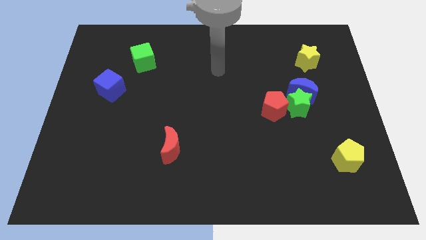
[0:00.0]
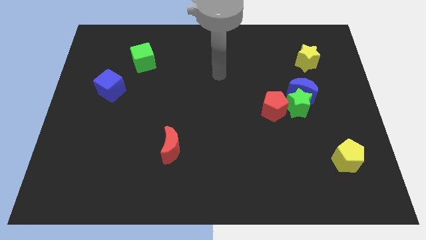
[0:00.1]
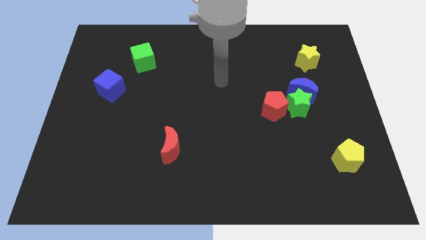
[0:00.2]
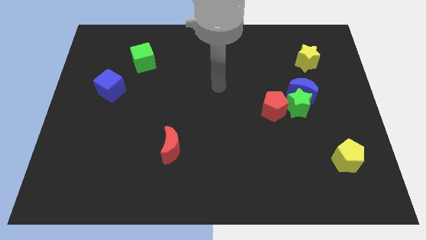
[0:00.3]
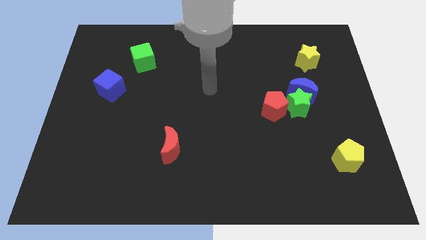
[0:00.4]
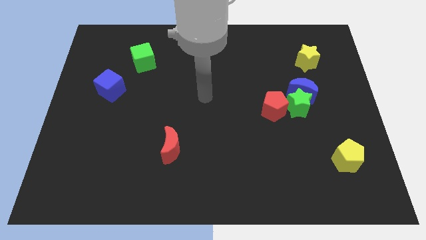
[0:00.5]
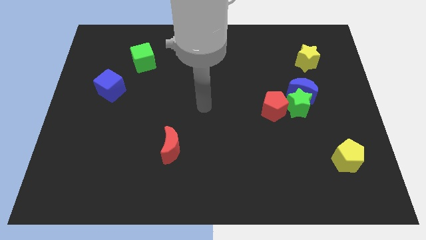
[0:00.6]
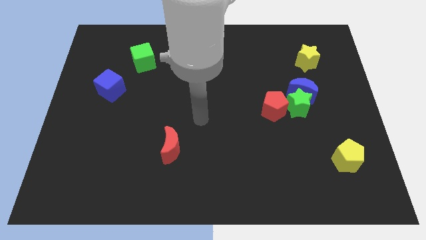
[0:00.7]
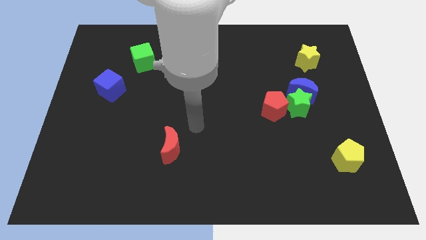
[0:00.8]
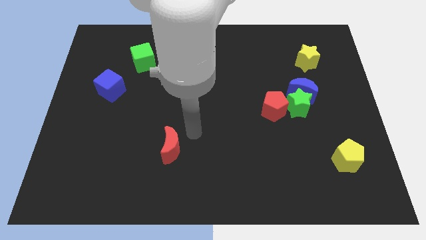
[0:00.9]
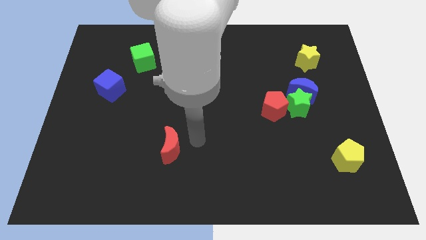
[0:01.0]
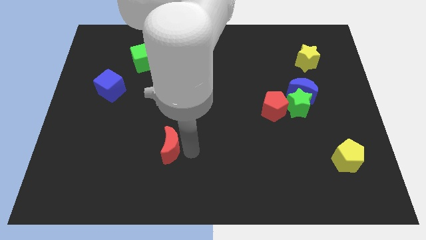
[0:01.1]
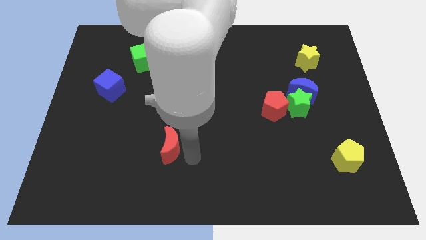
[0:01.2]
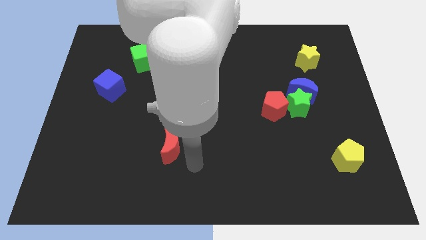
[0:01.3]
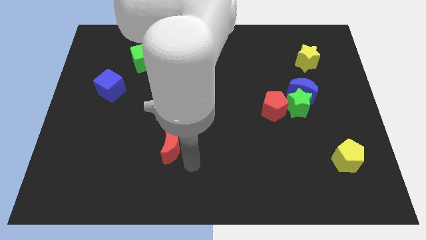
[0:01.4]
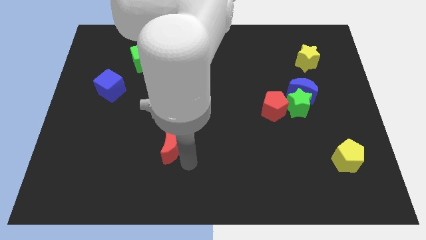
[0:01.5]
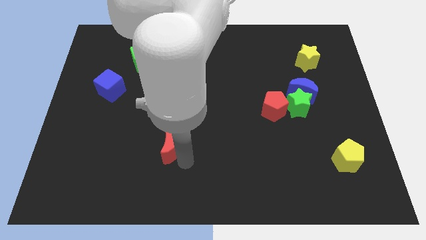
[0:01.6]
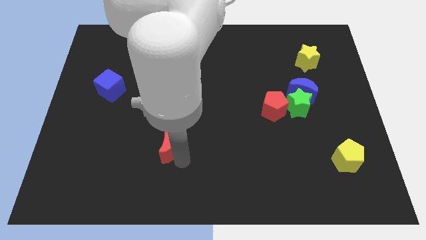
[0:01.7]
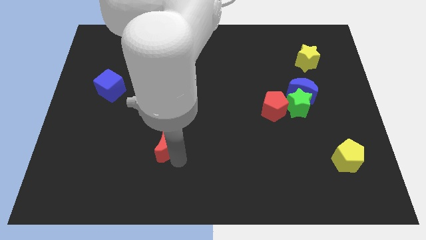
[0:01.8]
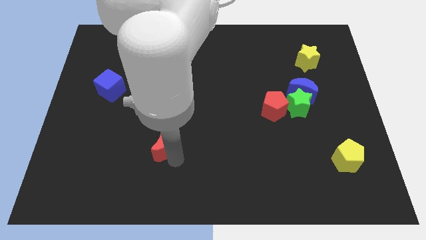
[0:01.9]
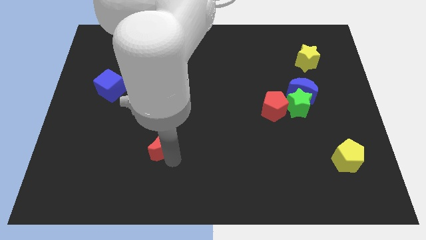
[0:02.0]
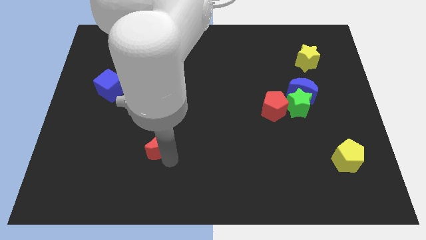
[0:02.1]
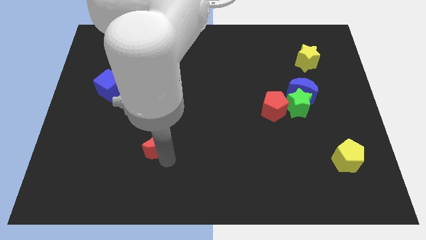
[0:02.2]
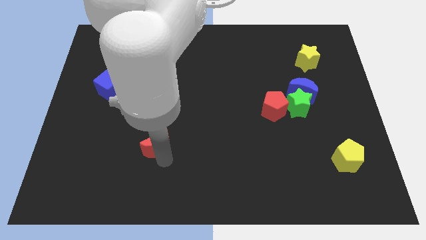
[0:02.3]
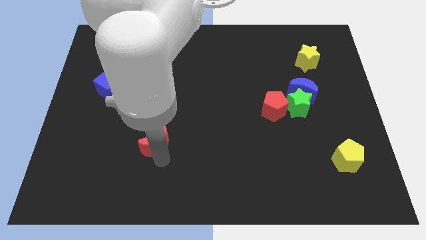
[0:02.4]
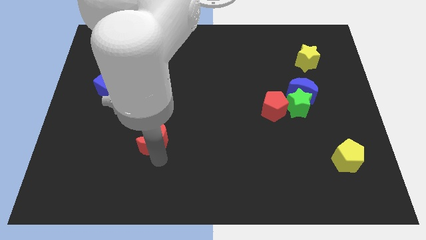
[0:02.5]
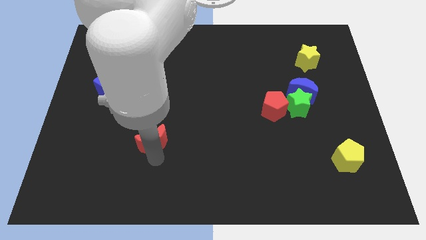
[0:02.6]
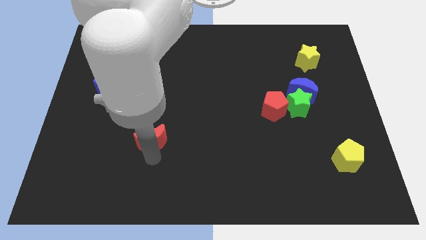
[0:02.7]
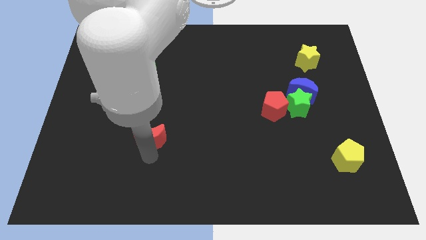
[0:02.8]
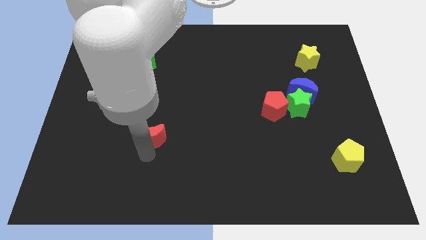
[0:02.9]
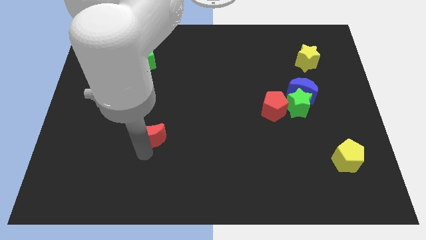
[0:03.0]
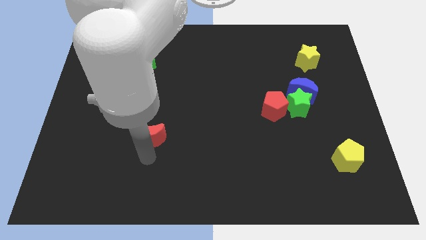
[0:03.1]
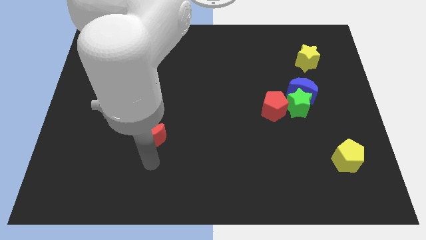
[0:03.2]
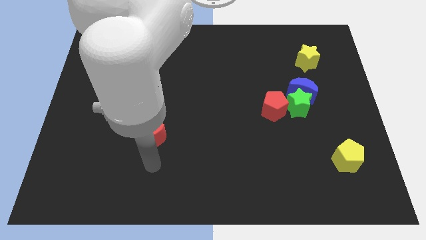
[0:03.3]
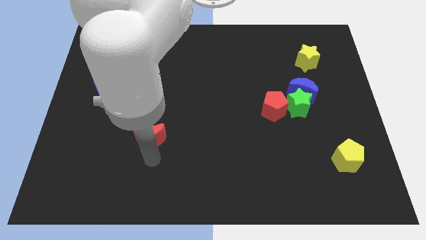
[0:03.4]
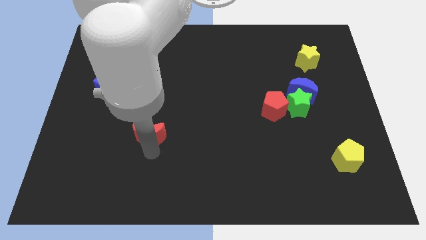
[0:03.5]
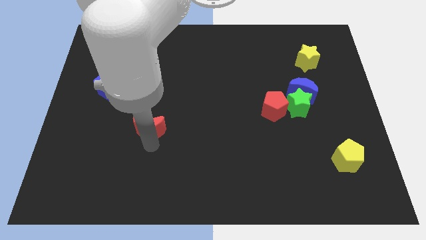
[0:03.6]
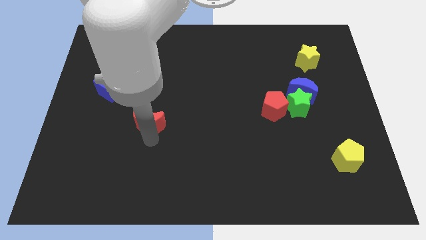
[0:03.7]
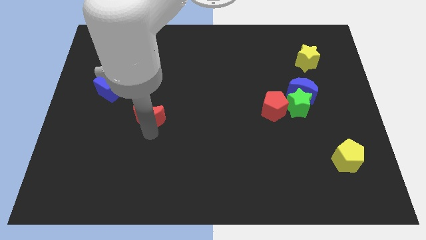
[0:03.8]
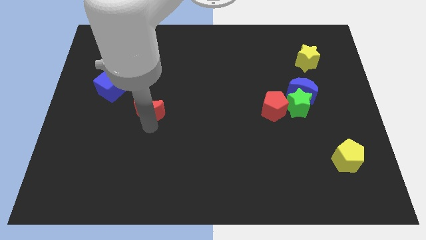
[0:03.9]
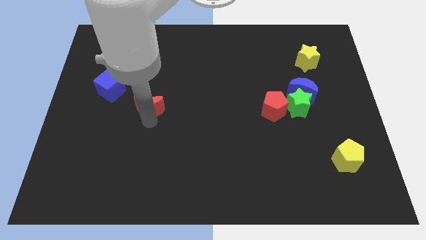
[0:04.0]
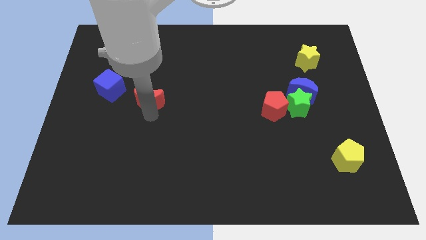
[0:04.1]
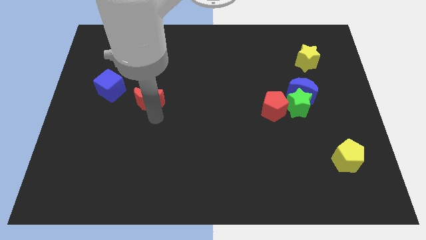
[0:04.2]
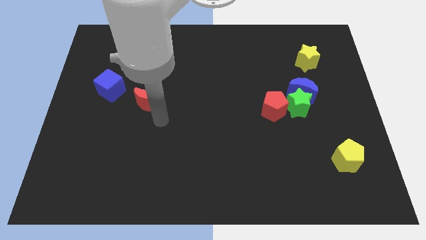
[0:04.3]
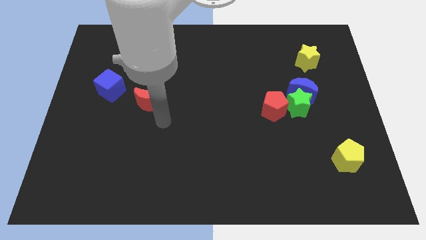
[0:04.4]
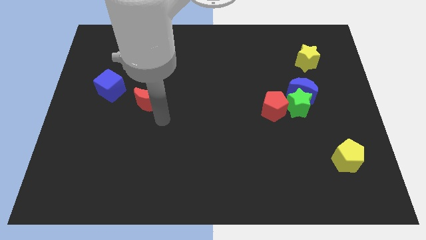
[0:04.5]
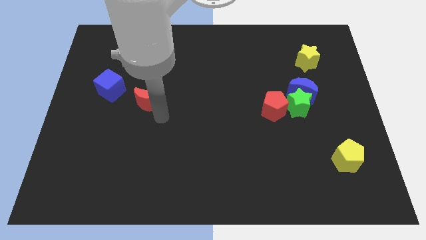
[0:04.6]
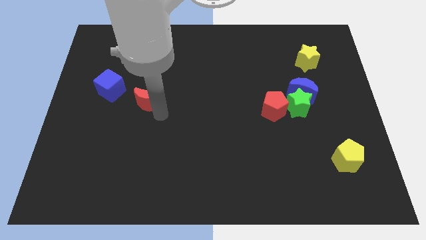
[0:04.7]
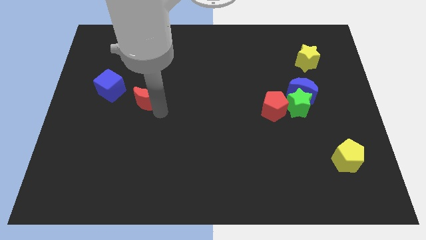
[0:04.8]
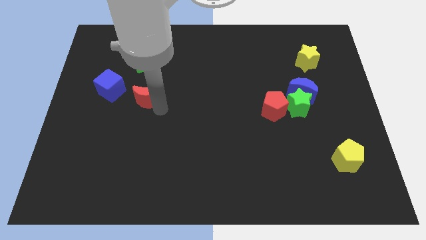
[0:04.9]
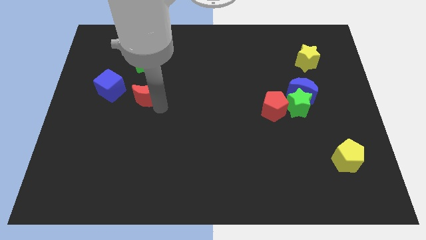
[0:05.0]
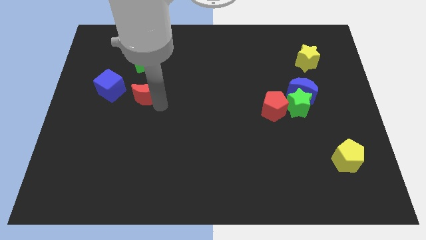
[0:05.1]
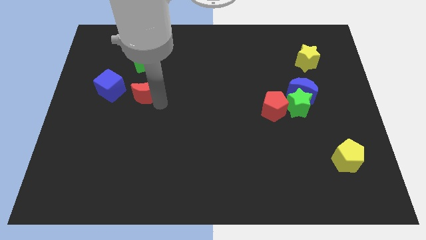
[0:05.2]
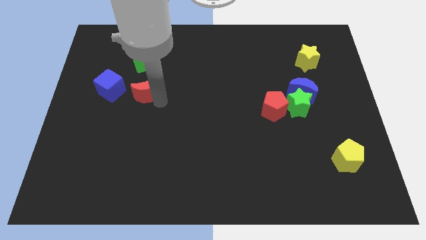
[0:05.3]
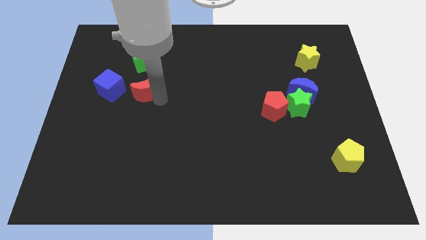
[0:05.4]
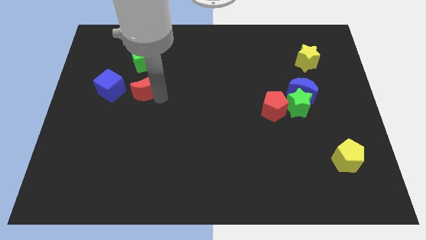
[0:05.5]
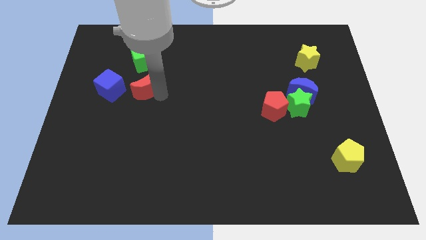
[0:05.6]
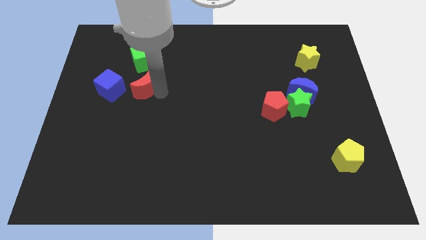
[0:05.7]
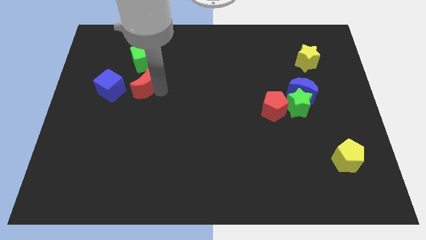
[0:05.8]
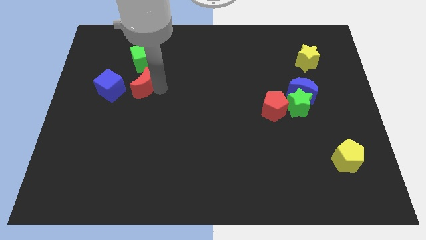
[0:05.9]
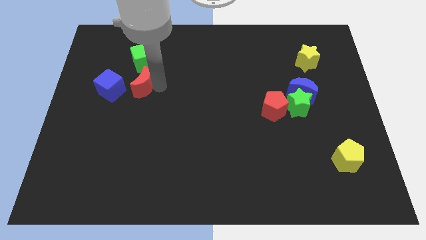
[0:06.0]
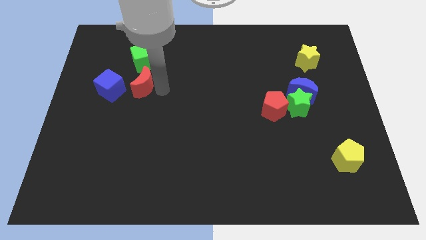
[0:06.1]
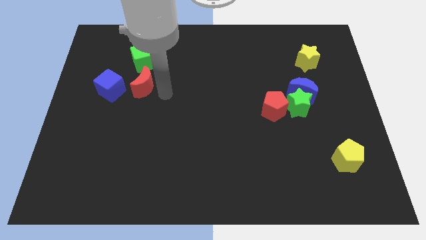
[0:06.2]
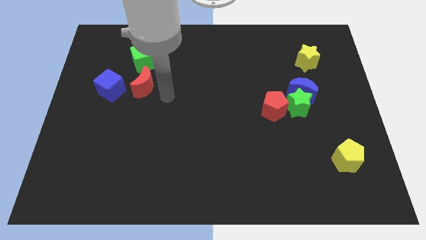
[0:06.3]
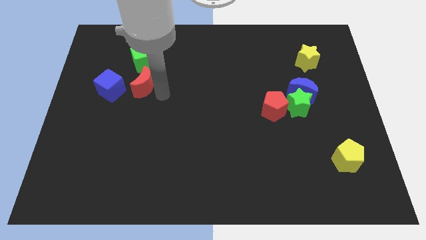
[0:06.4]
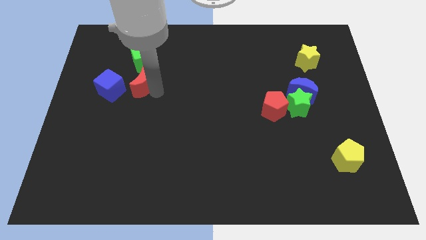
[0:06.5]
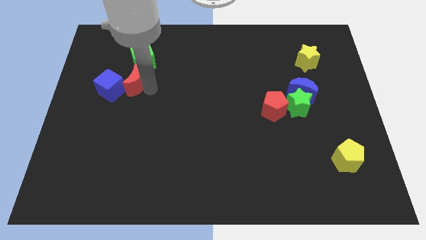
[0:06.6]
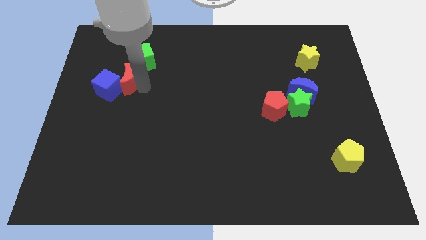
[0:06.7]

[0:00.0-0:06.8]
push the red moon to the bottom left side of the green cube
